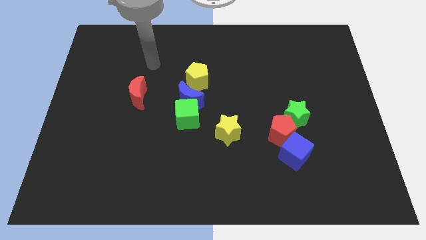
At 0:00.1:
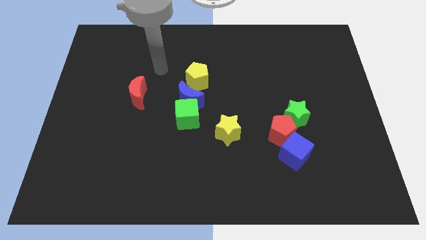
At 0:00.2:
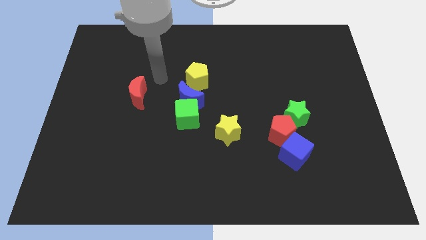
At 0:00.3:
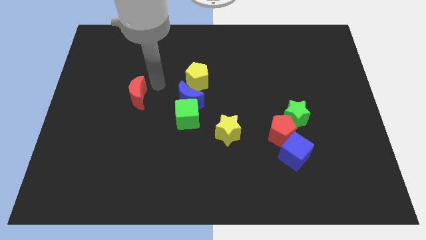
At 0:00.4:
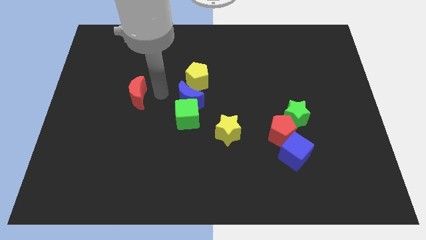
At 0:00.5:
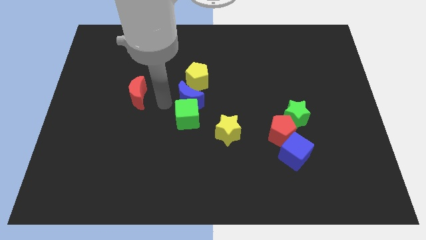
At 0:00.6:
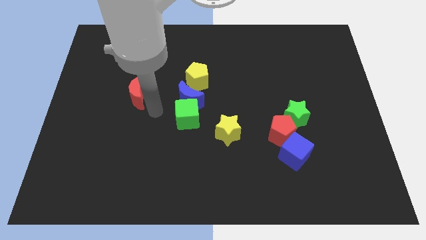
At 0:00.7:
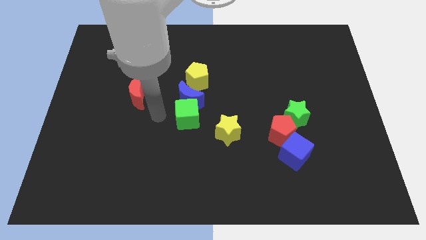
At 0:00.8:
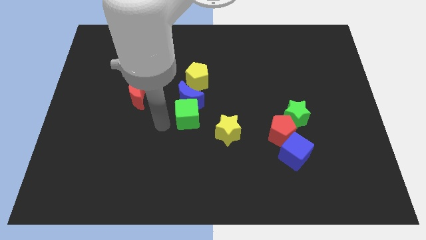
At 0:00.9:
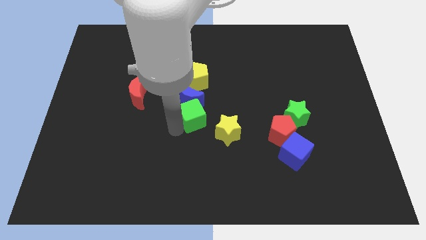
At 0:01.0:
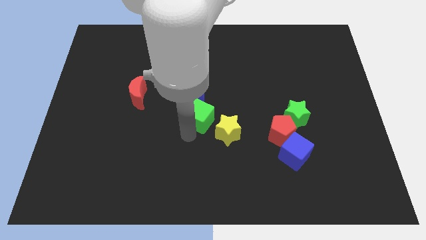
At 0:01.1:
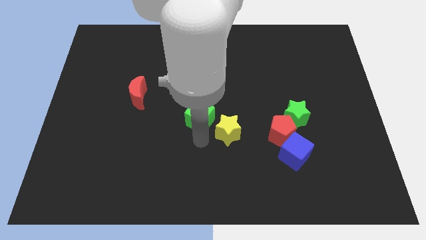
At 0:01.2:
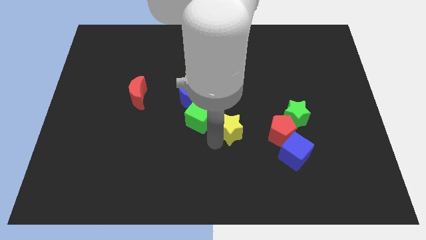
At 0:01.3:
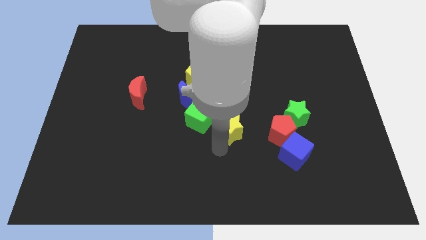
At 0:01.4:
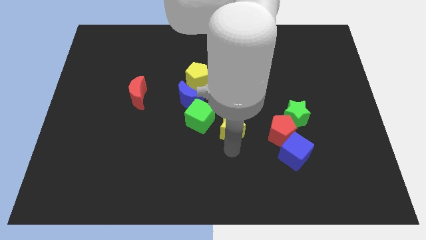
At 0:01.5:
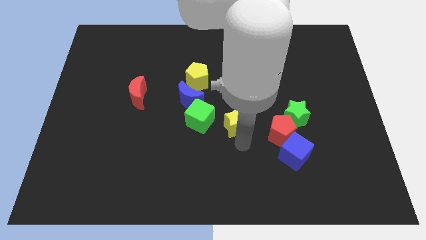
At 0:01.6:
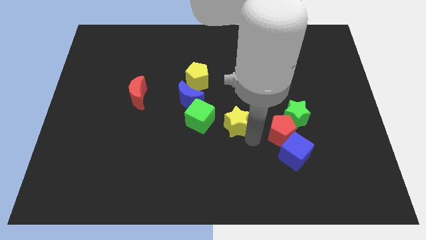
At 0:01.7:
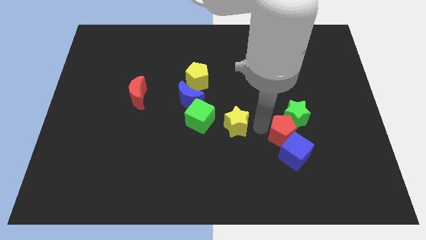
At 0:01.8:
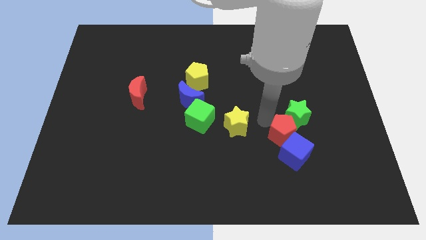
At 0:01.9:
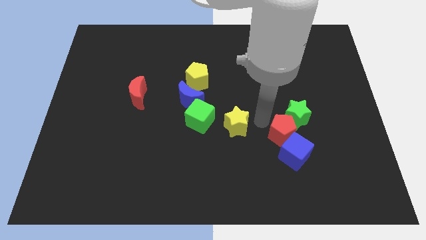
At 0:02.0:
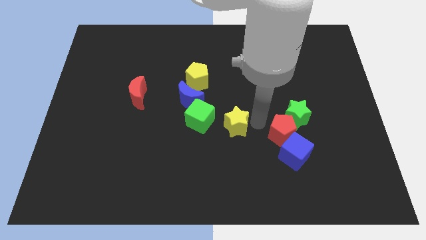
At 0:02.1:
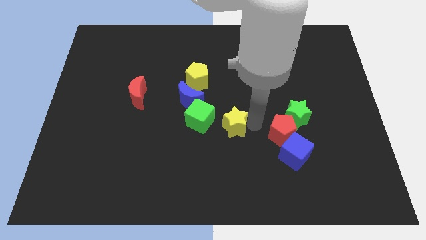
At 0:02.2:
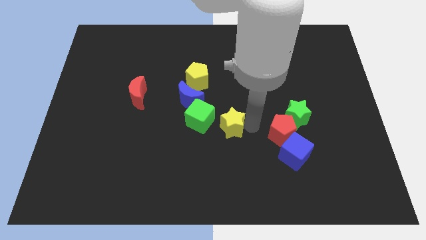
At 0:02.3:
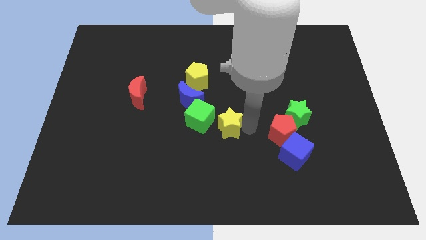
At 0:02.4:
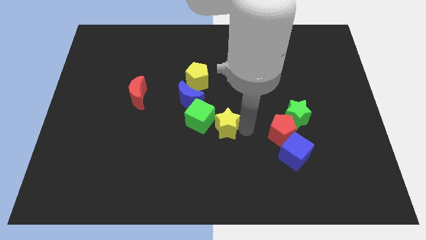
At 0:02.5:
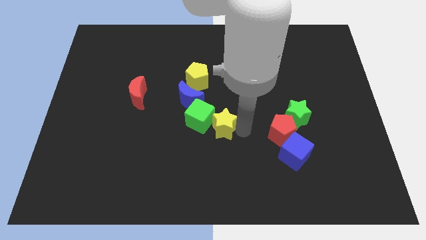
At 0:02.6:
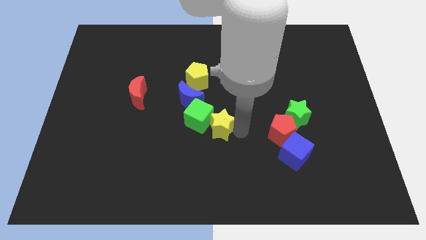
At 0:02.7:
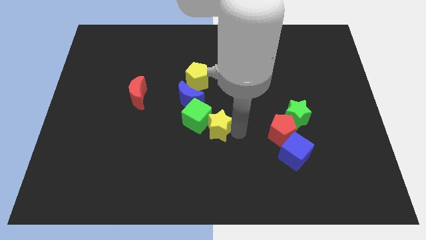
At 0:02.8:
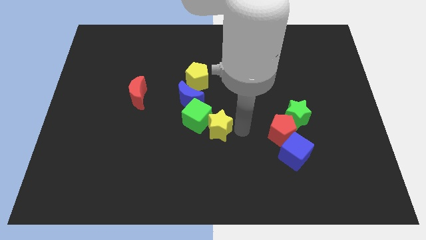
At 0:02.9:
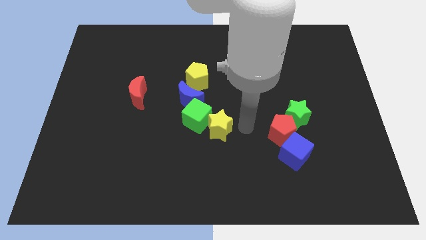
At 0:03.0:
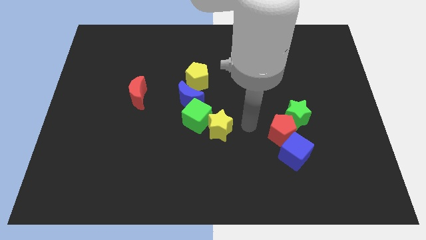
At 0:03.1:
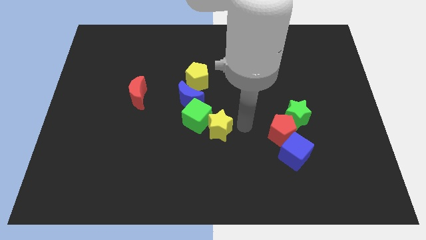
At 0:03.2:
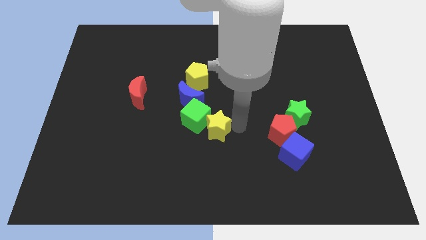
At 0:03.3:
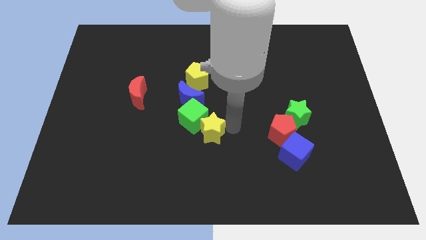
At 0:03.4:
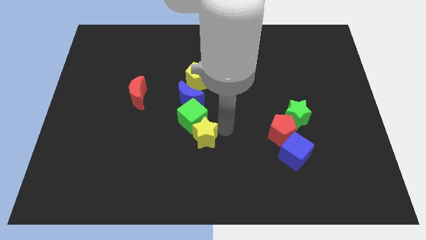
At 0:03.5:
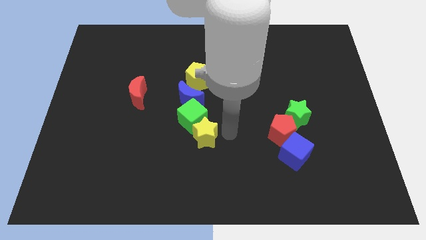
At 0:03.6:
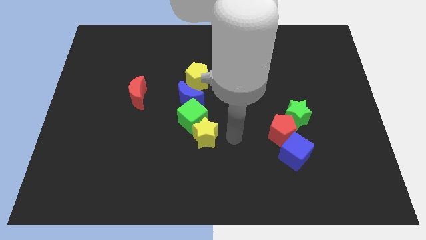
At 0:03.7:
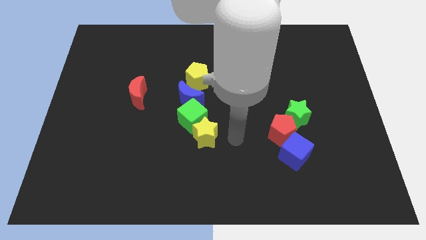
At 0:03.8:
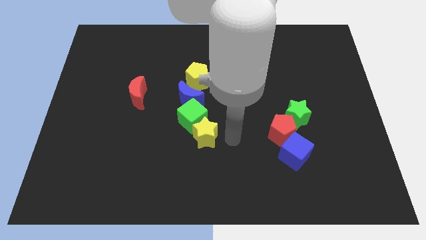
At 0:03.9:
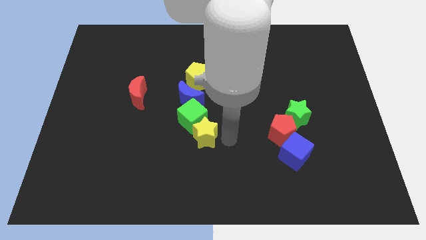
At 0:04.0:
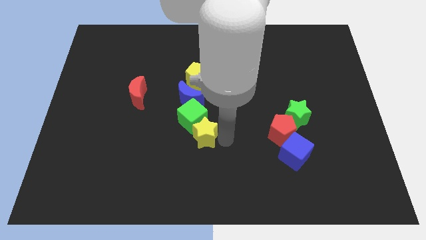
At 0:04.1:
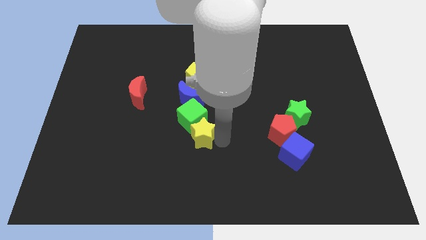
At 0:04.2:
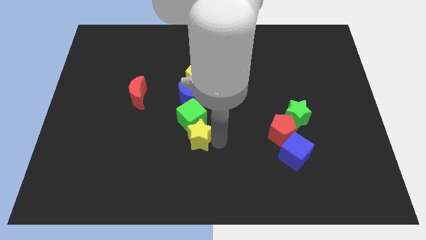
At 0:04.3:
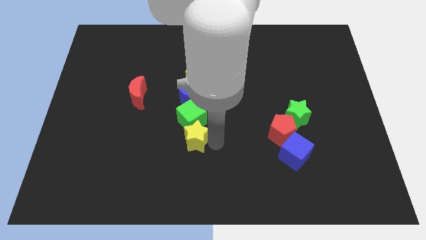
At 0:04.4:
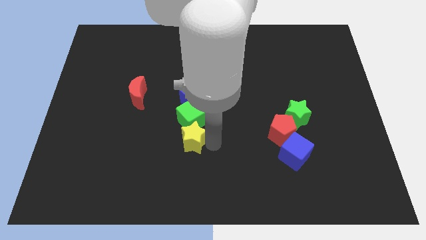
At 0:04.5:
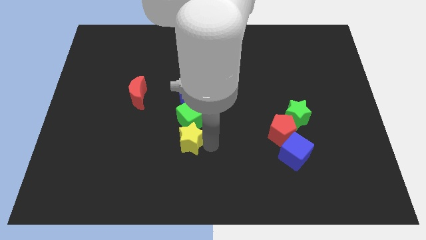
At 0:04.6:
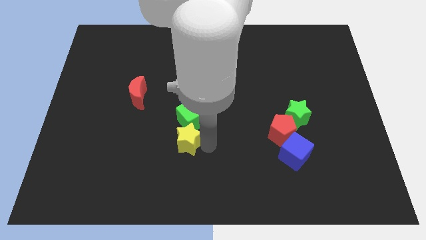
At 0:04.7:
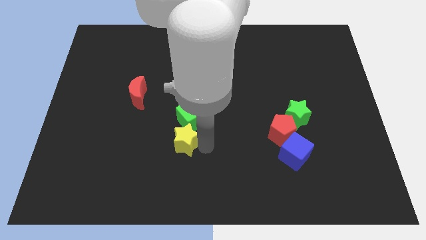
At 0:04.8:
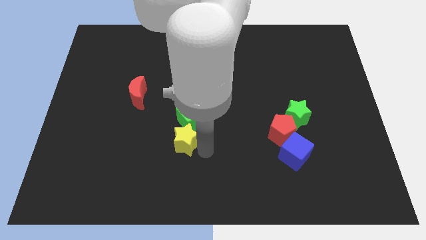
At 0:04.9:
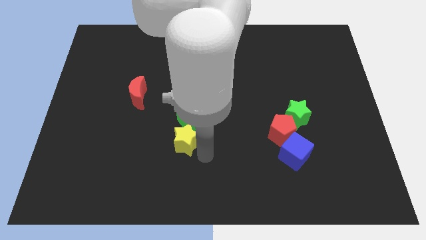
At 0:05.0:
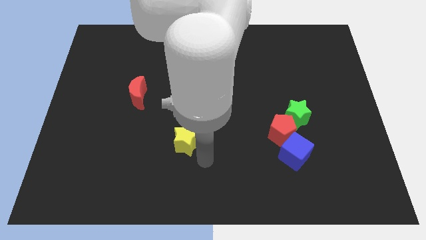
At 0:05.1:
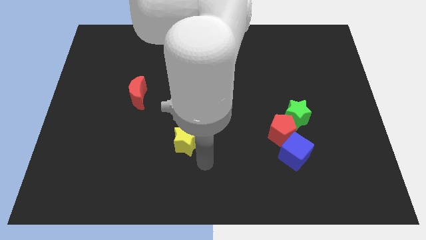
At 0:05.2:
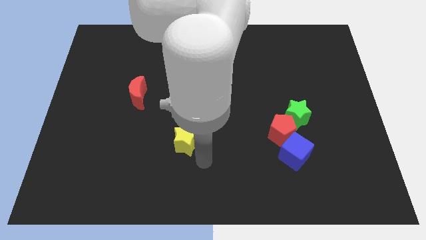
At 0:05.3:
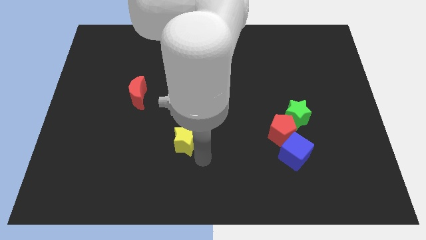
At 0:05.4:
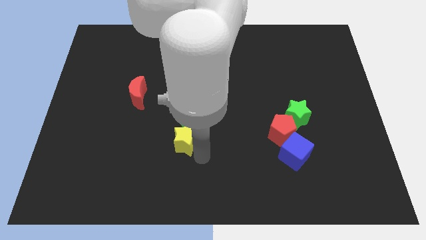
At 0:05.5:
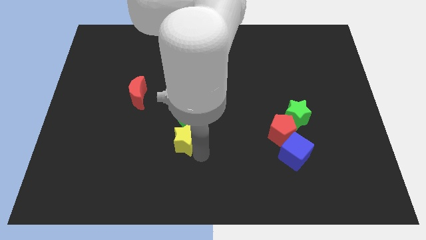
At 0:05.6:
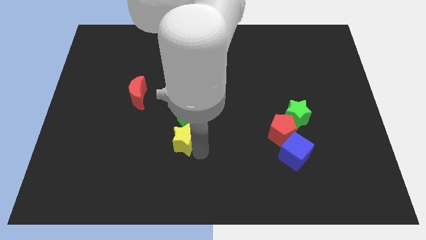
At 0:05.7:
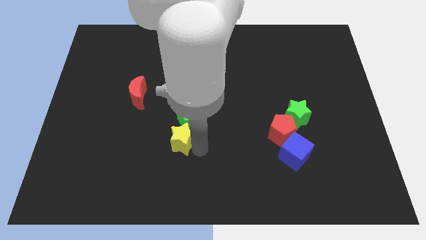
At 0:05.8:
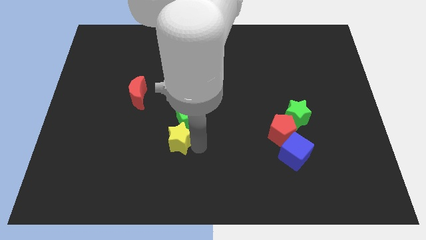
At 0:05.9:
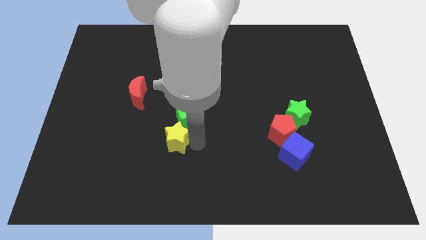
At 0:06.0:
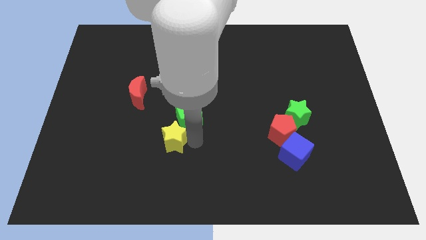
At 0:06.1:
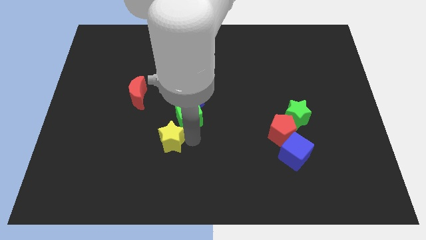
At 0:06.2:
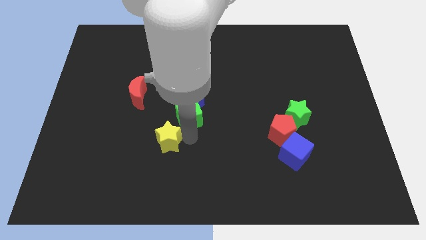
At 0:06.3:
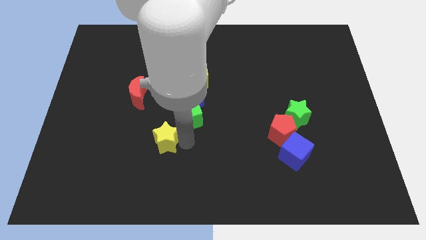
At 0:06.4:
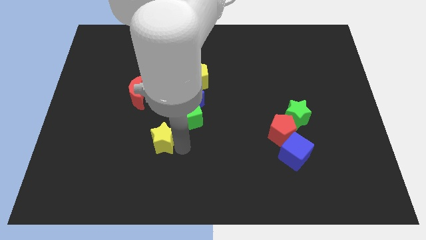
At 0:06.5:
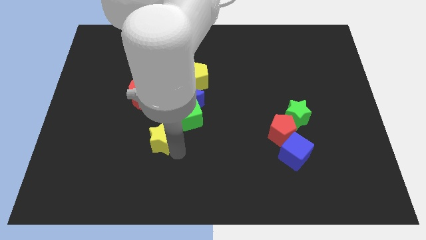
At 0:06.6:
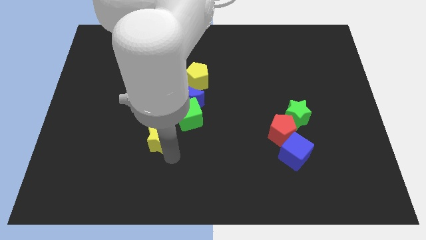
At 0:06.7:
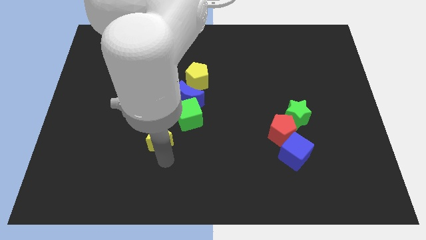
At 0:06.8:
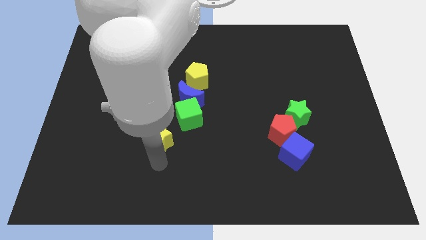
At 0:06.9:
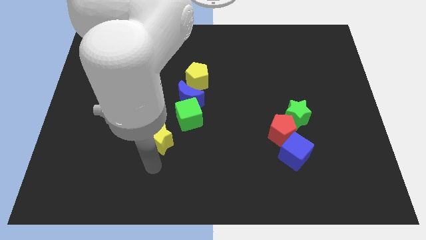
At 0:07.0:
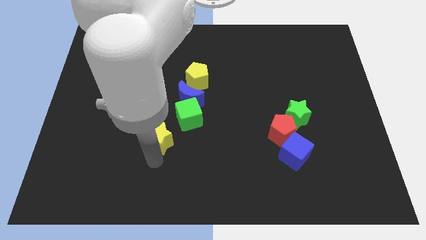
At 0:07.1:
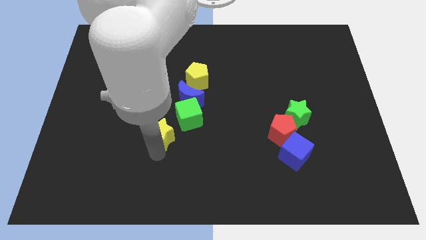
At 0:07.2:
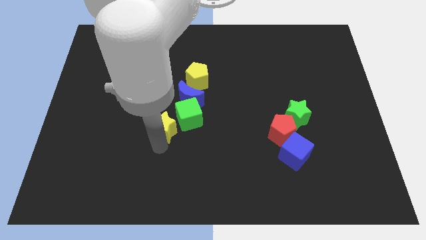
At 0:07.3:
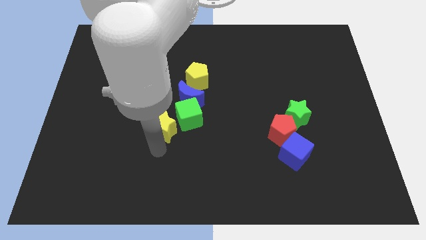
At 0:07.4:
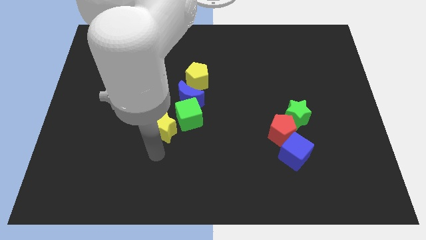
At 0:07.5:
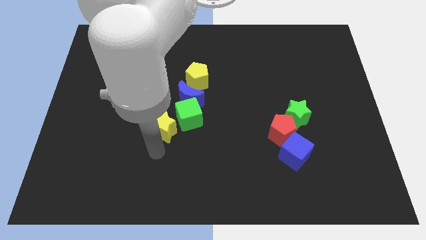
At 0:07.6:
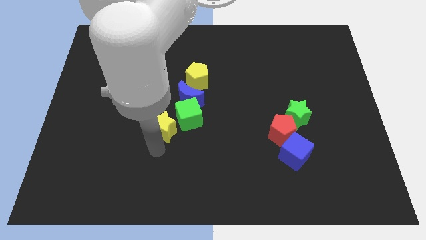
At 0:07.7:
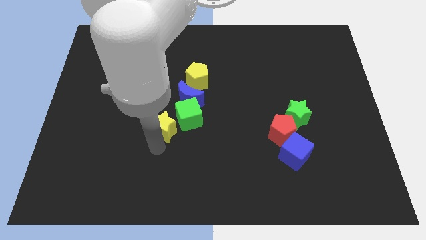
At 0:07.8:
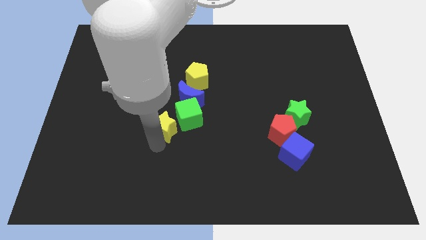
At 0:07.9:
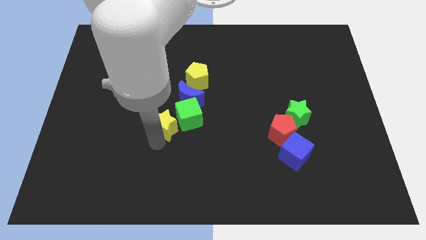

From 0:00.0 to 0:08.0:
slightly slide the yellow star up and to the left
